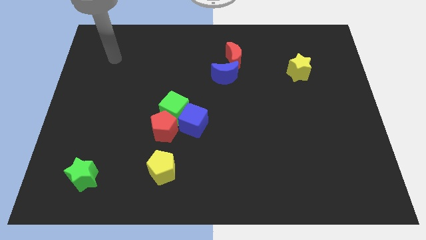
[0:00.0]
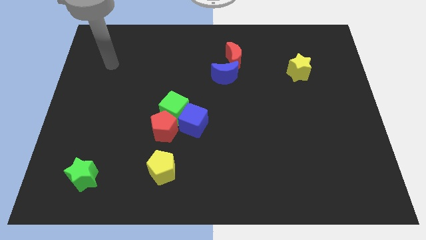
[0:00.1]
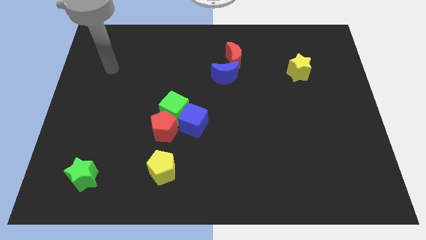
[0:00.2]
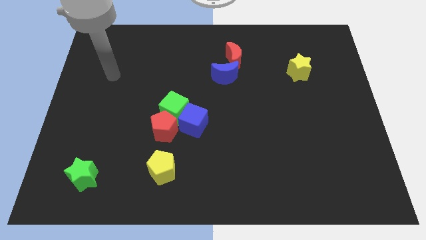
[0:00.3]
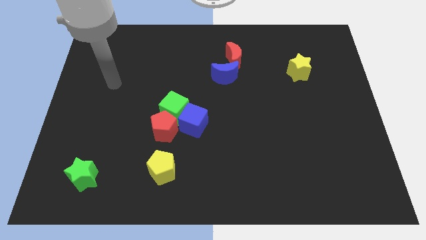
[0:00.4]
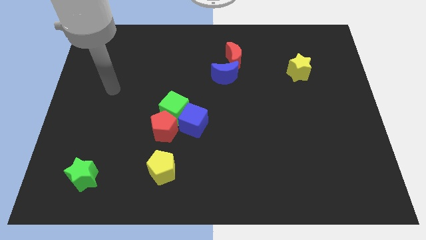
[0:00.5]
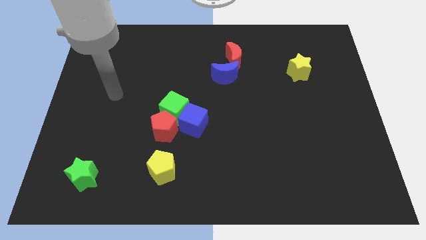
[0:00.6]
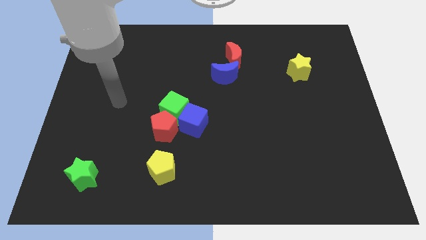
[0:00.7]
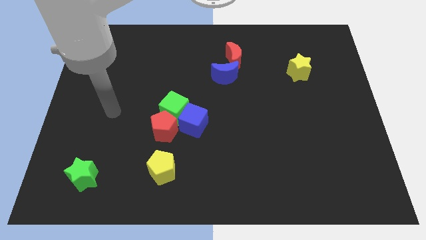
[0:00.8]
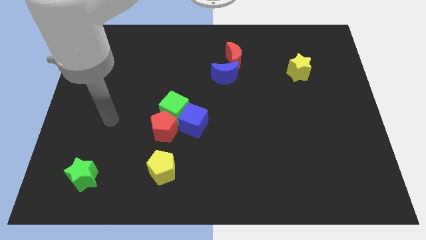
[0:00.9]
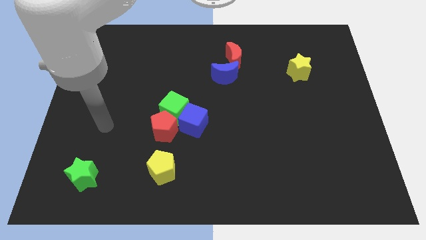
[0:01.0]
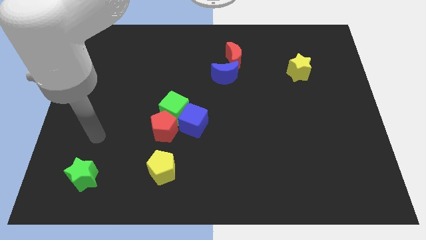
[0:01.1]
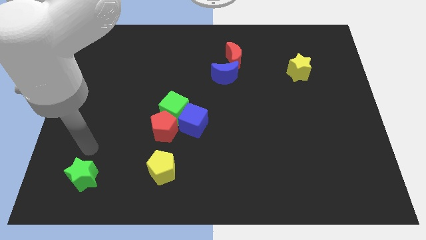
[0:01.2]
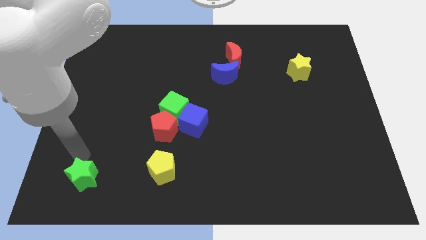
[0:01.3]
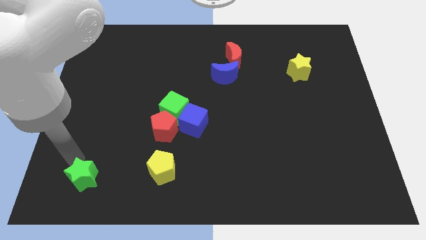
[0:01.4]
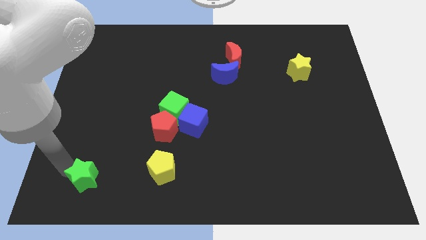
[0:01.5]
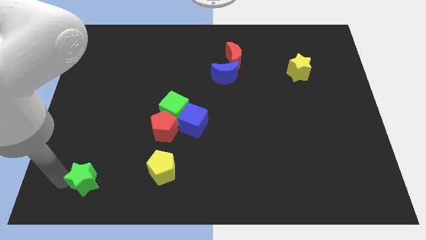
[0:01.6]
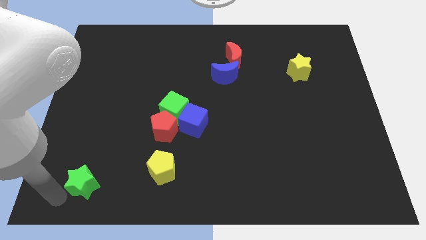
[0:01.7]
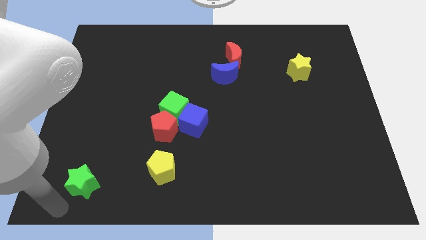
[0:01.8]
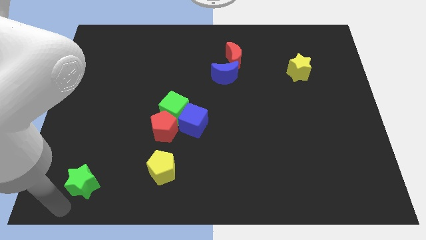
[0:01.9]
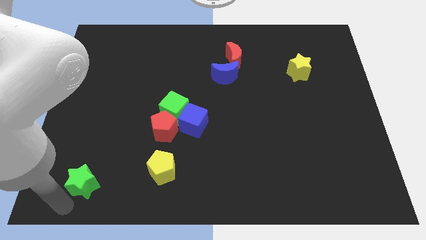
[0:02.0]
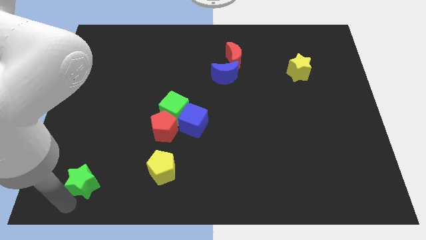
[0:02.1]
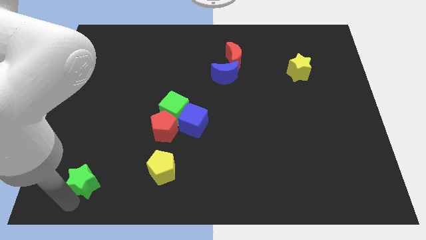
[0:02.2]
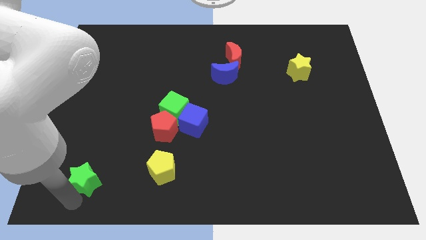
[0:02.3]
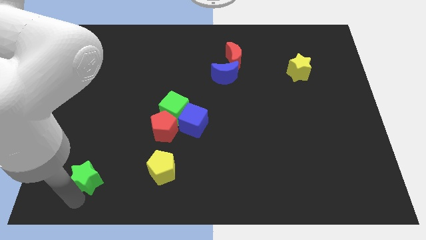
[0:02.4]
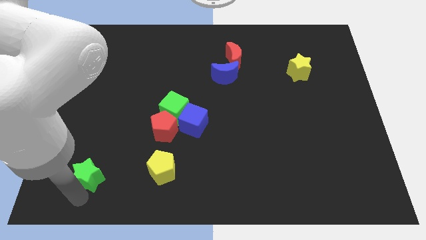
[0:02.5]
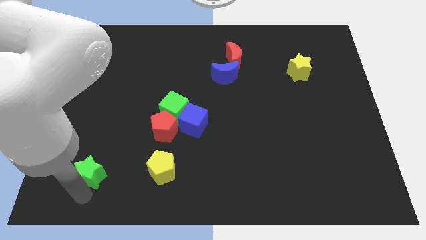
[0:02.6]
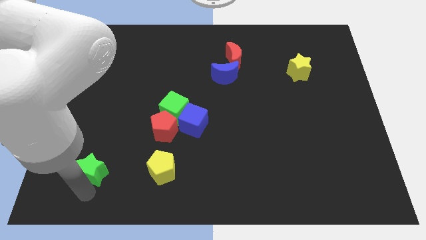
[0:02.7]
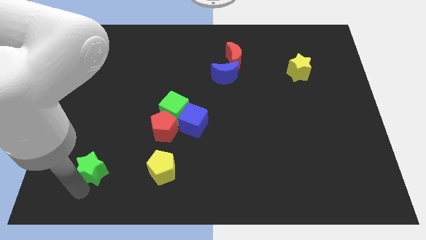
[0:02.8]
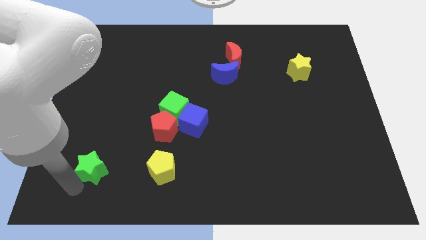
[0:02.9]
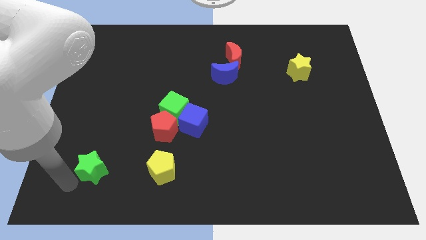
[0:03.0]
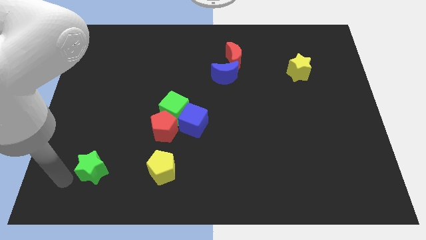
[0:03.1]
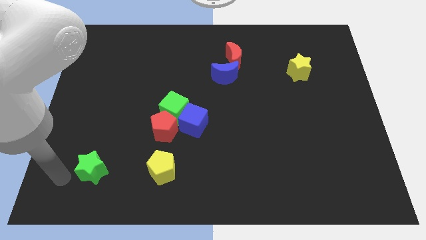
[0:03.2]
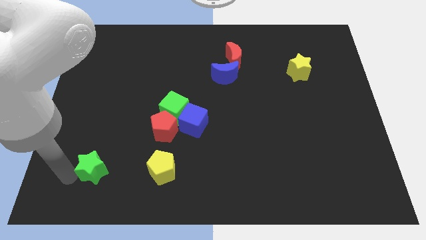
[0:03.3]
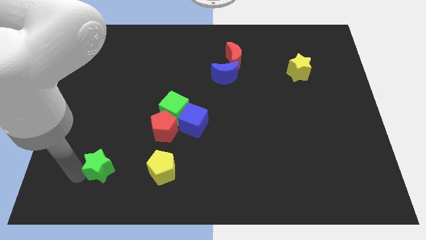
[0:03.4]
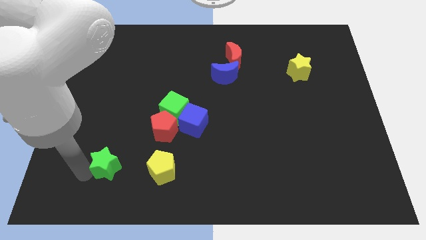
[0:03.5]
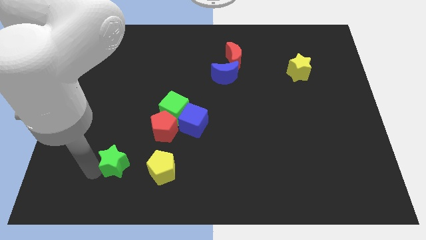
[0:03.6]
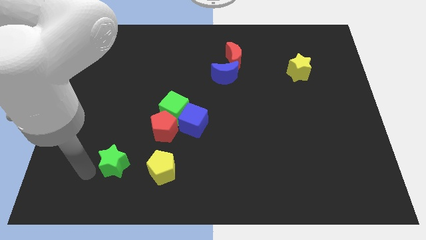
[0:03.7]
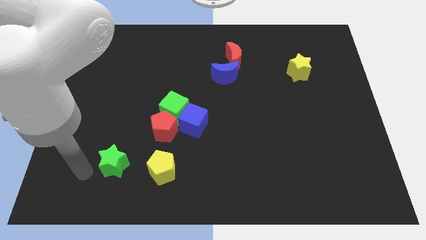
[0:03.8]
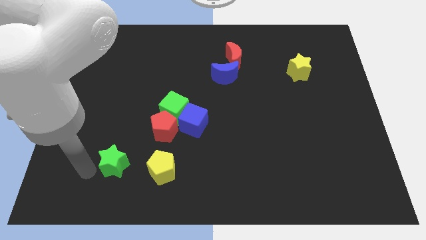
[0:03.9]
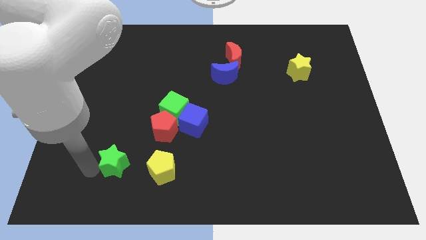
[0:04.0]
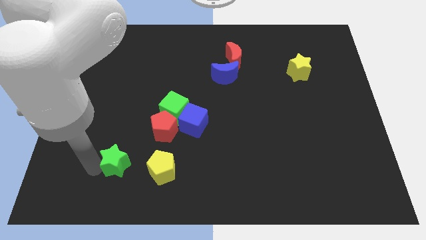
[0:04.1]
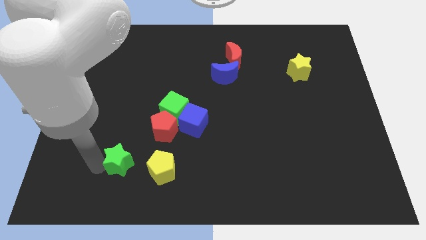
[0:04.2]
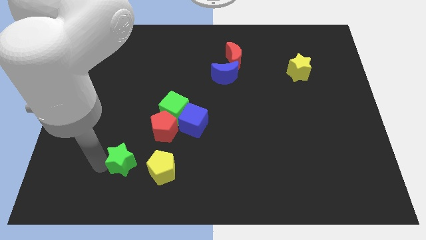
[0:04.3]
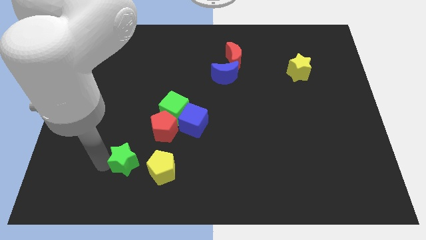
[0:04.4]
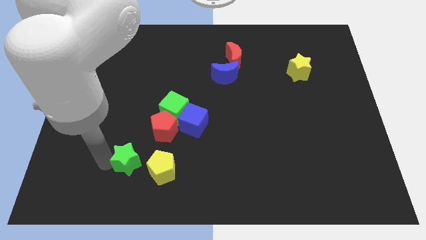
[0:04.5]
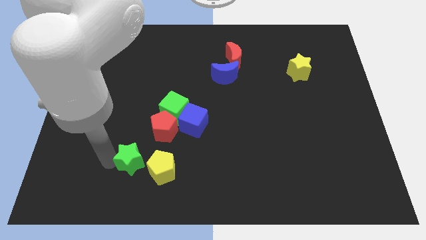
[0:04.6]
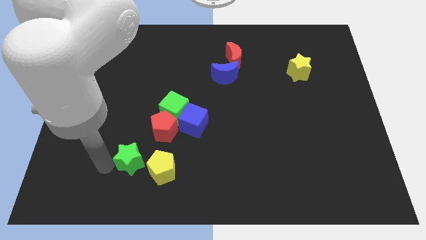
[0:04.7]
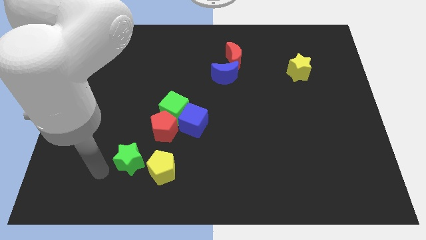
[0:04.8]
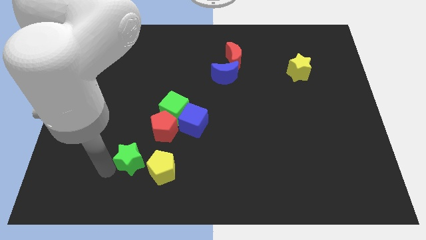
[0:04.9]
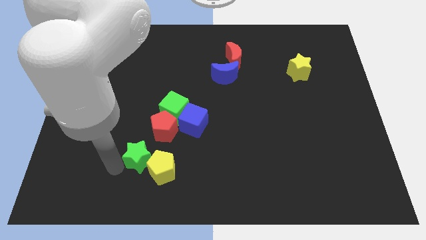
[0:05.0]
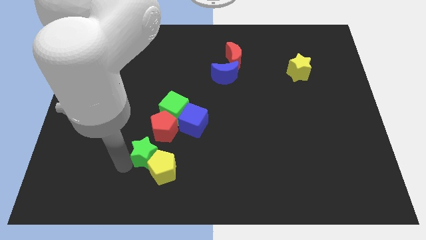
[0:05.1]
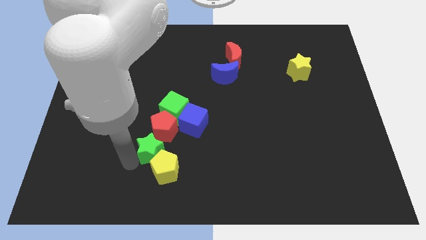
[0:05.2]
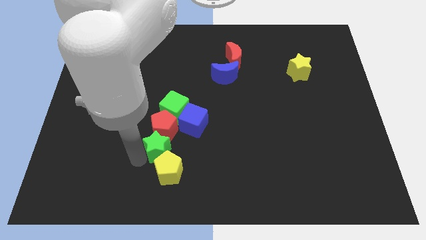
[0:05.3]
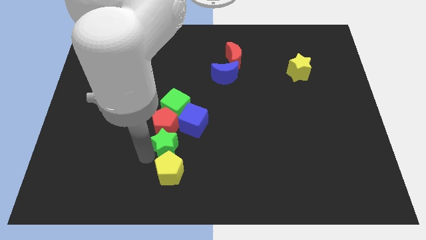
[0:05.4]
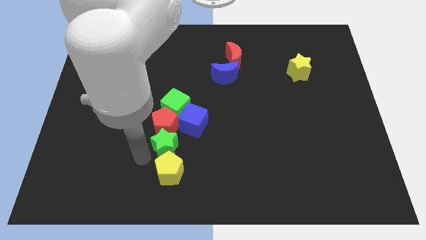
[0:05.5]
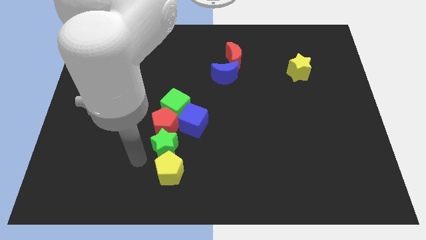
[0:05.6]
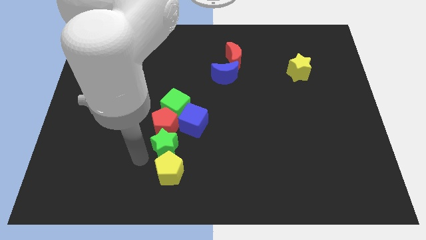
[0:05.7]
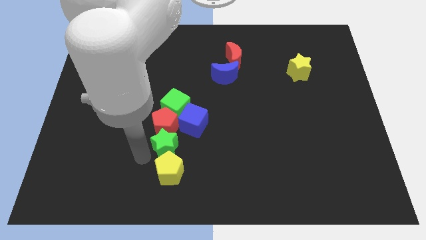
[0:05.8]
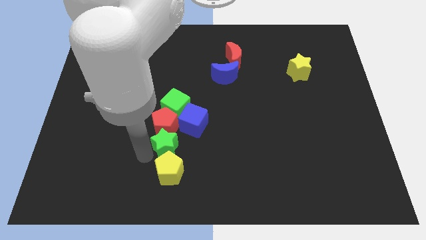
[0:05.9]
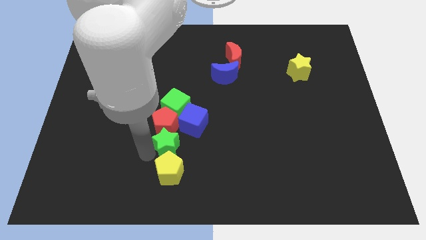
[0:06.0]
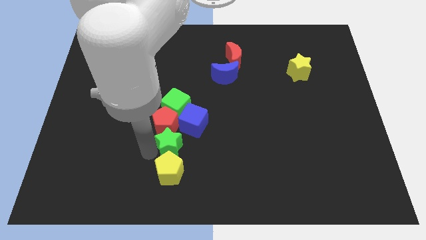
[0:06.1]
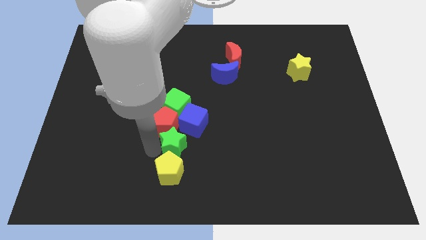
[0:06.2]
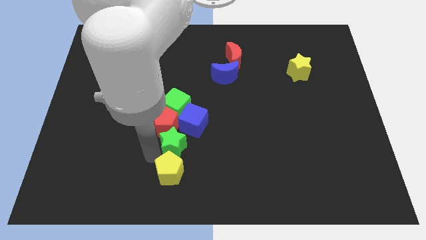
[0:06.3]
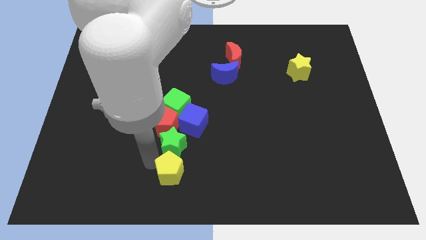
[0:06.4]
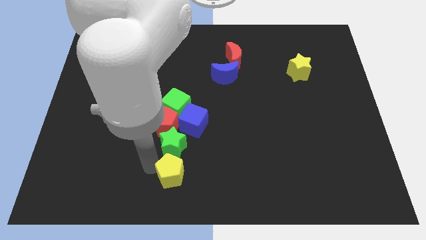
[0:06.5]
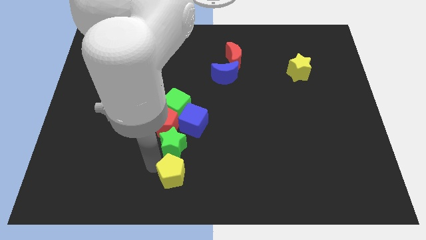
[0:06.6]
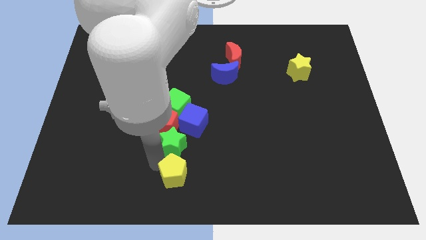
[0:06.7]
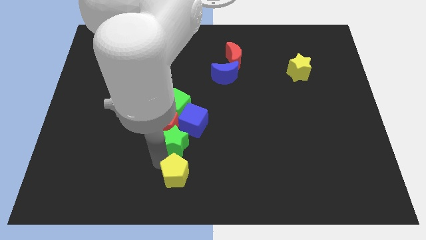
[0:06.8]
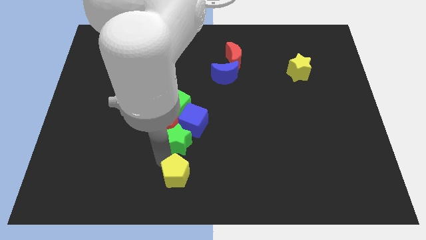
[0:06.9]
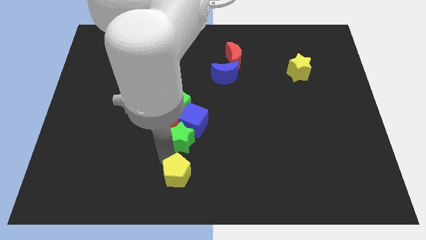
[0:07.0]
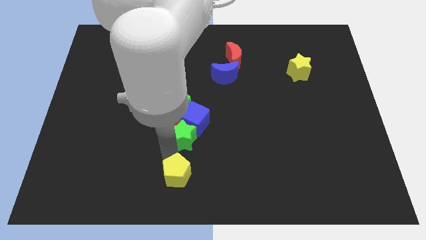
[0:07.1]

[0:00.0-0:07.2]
move the green star to the bottom right side of the green cube
